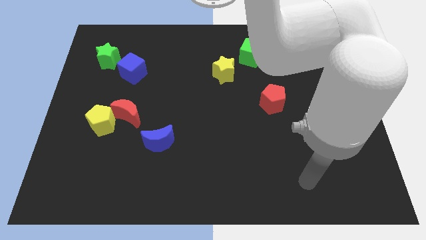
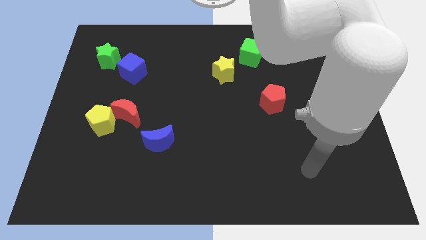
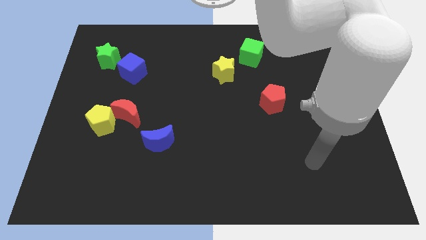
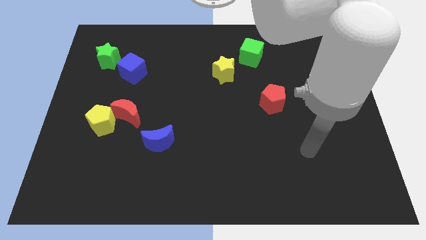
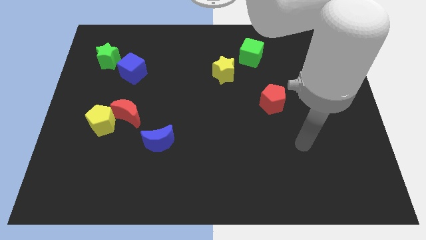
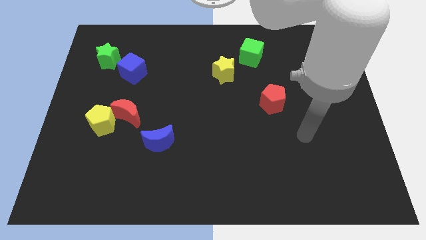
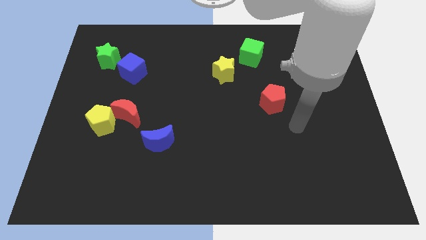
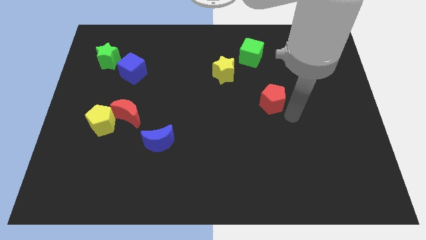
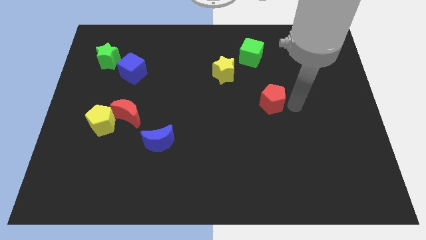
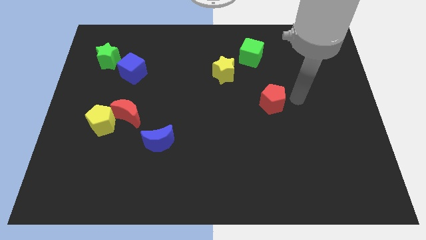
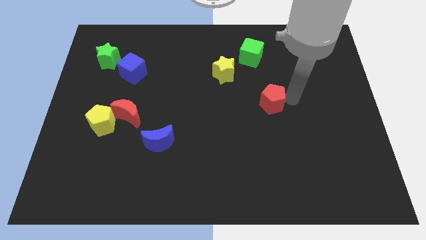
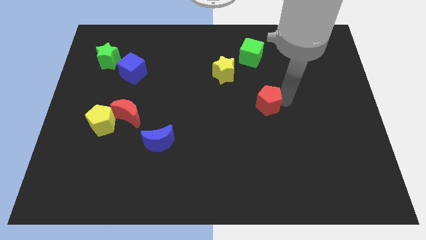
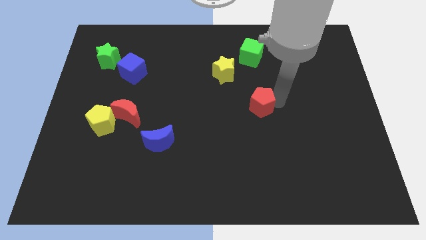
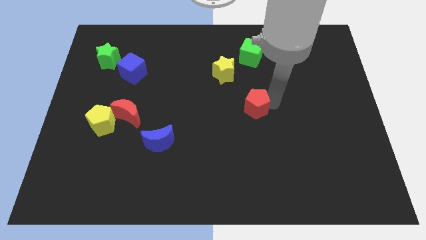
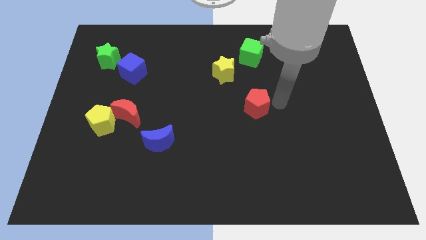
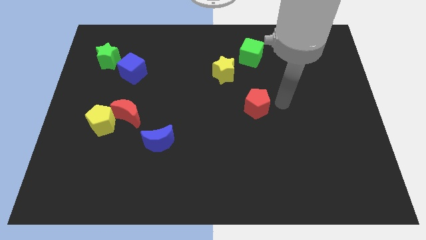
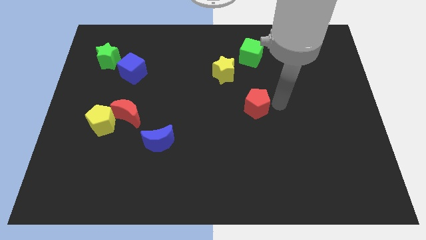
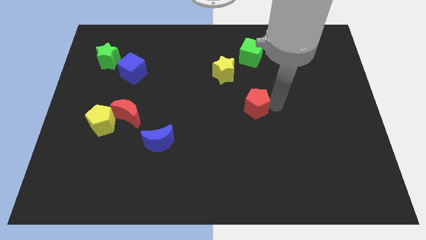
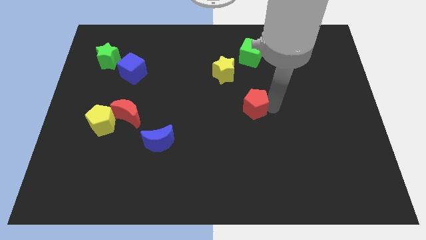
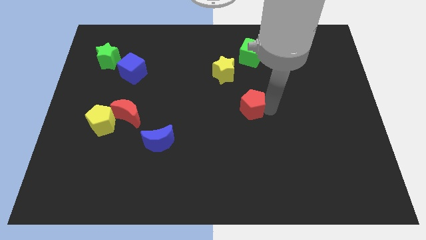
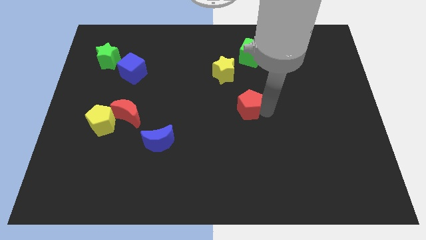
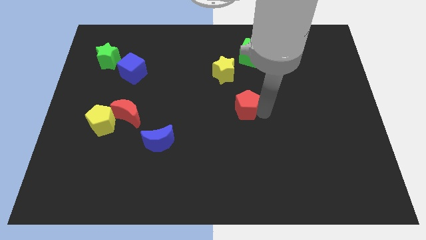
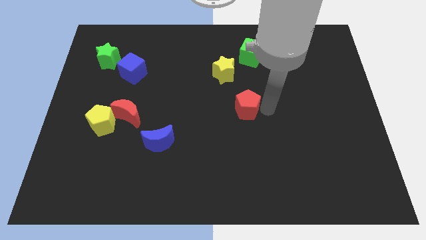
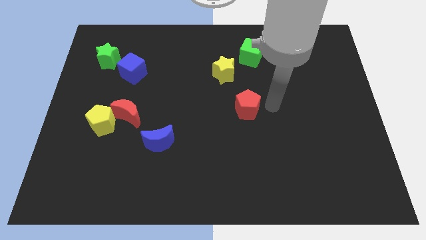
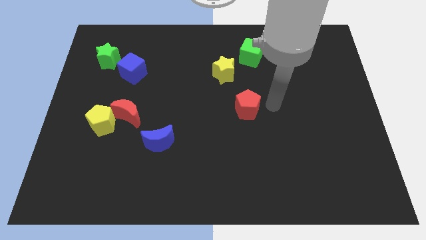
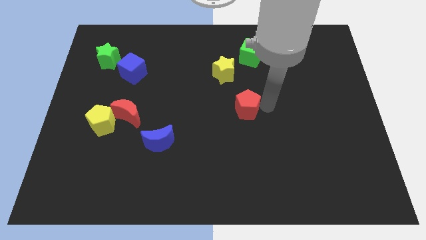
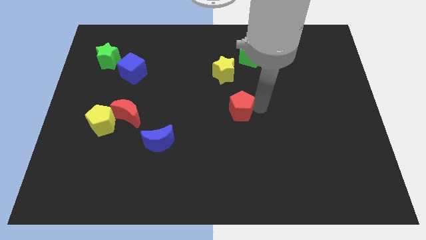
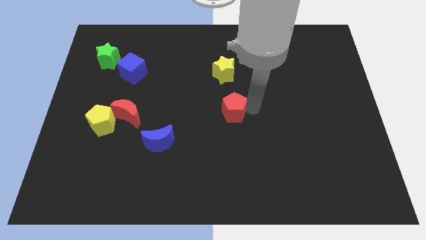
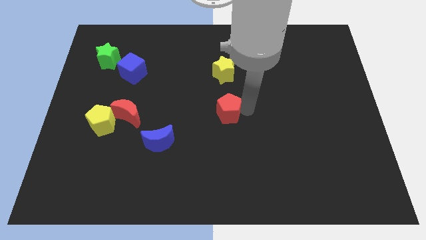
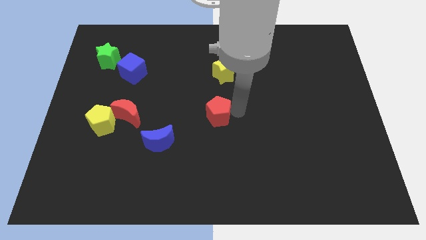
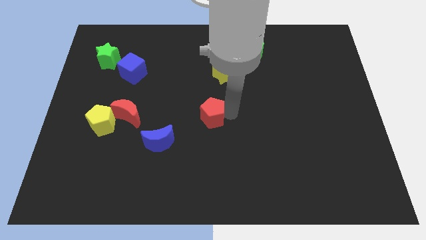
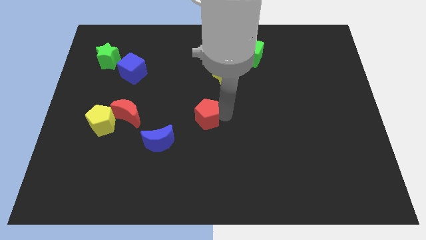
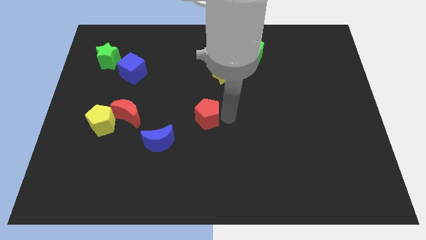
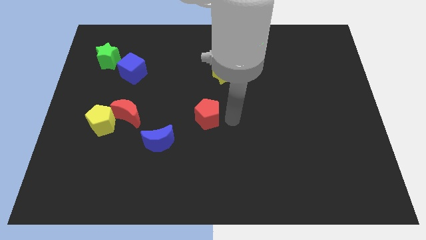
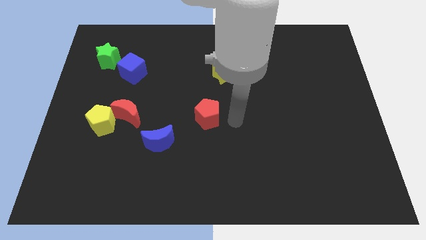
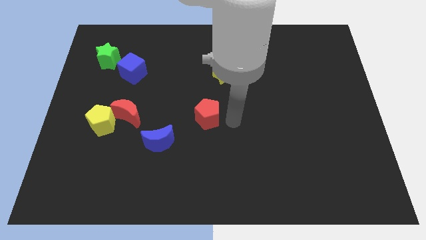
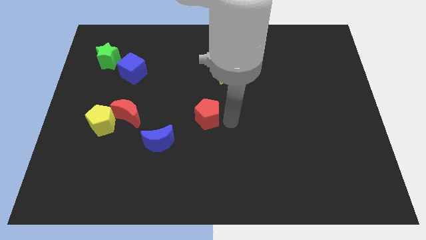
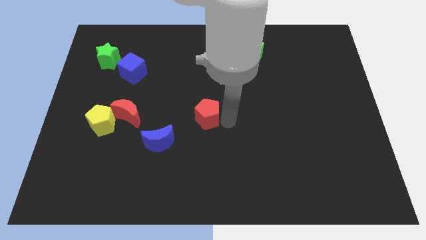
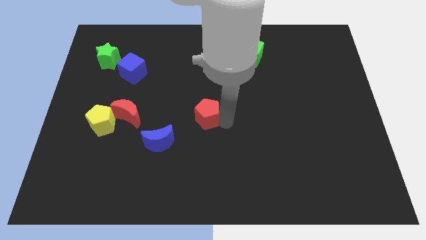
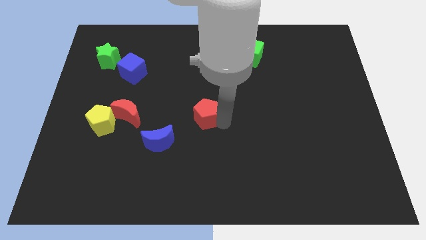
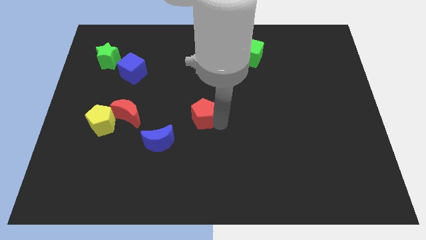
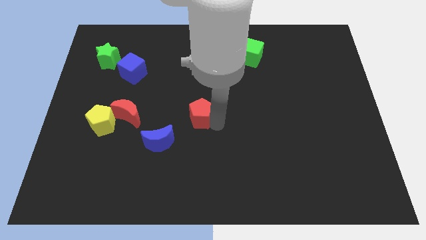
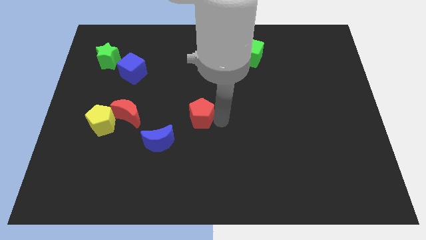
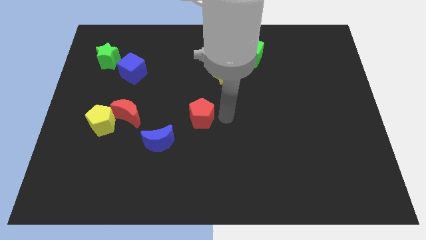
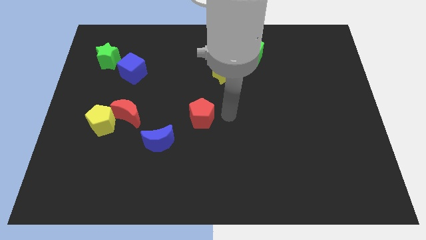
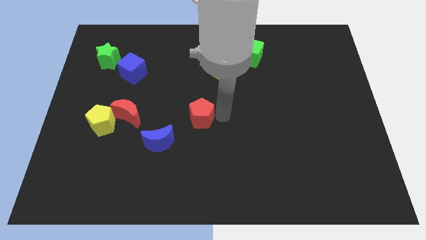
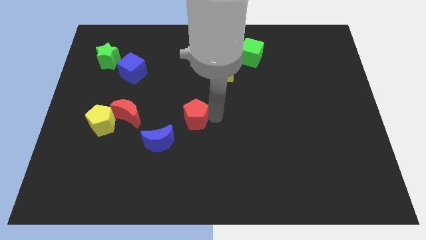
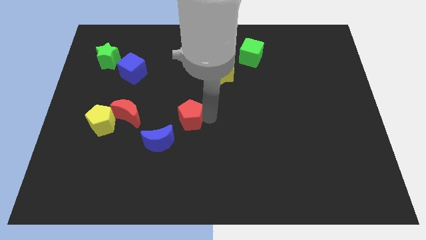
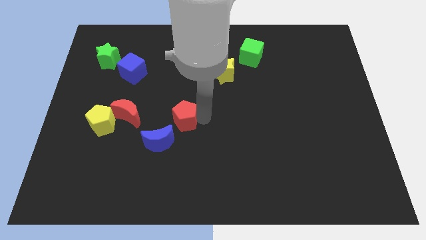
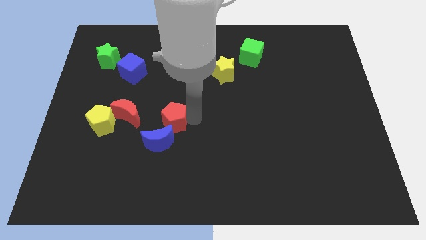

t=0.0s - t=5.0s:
push the red pentagon to the right of the yellow pentagon

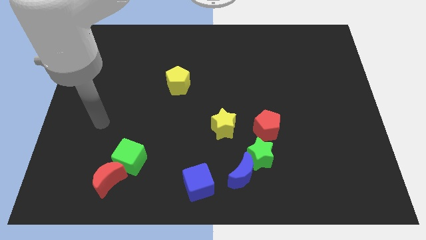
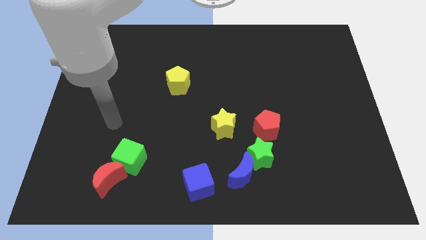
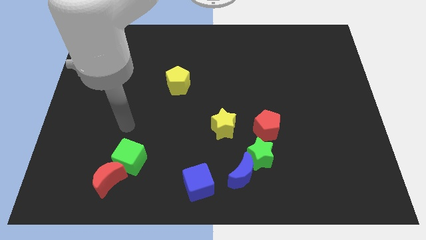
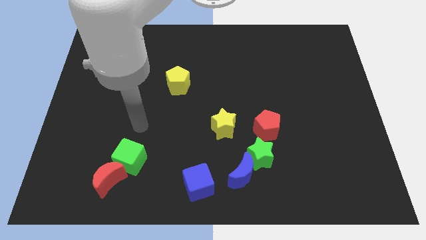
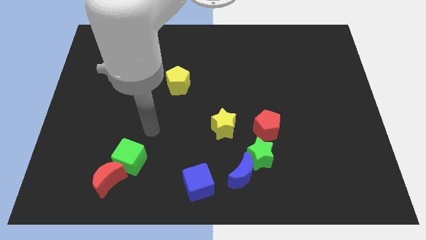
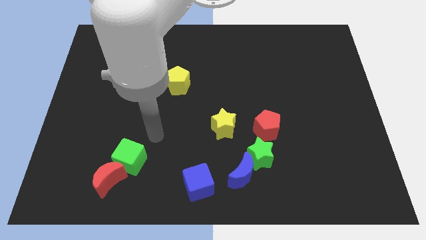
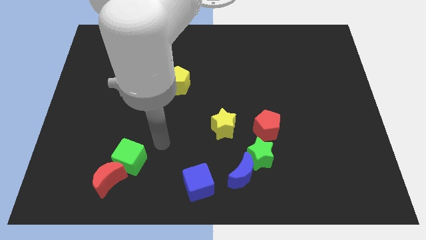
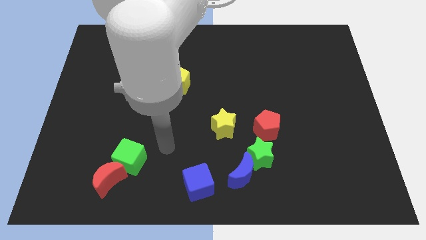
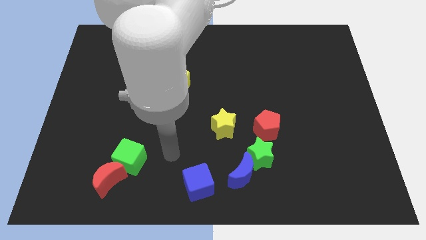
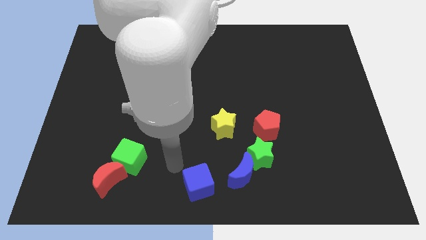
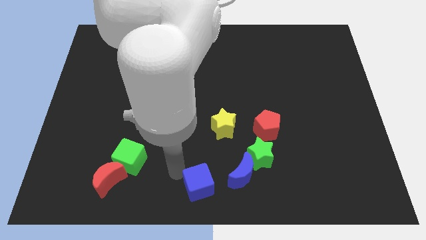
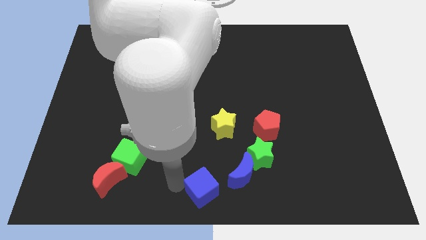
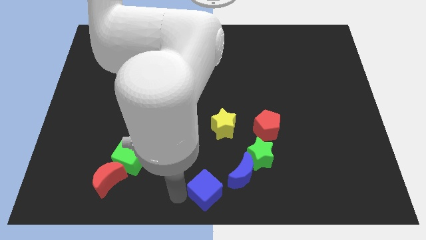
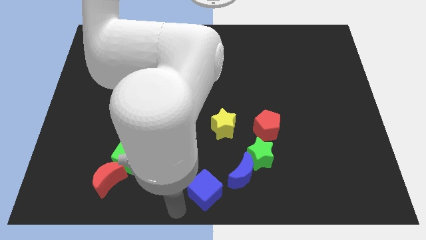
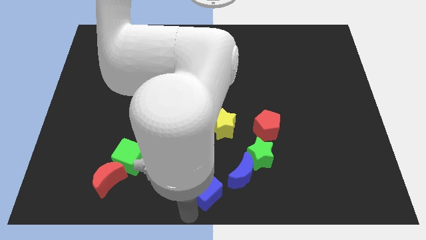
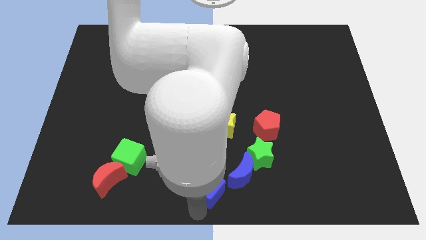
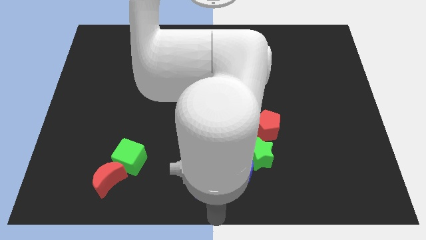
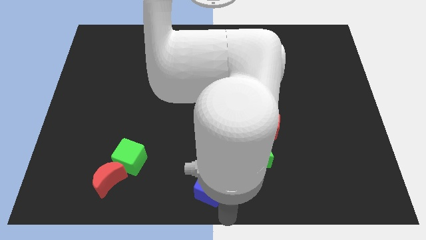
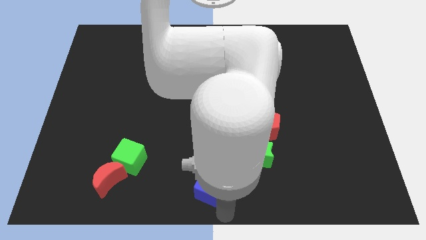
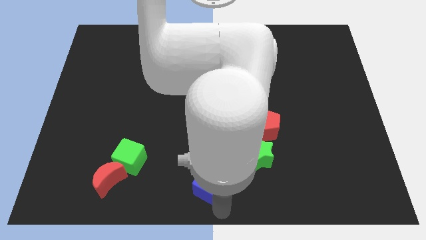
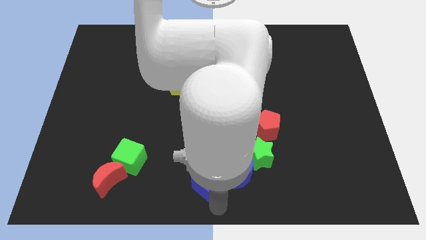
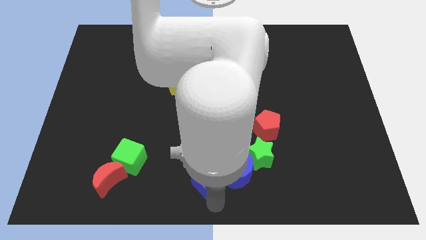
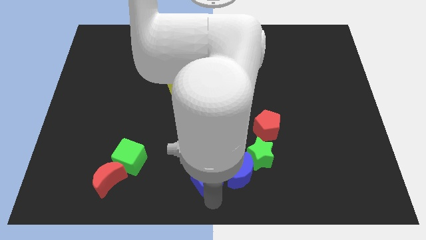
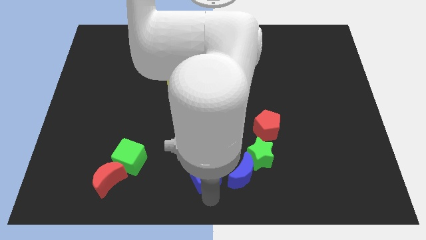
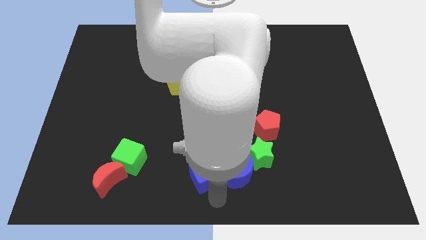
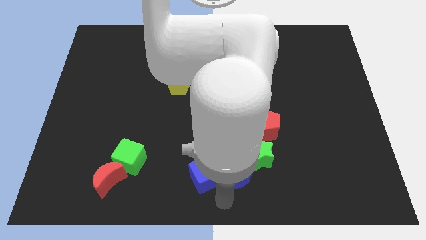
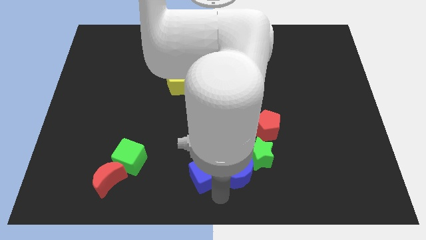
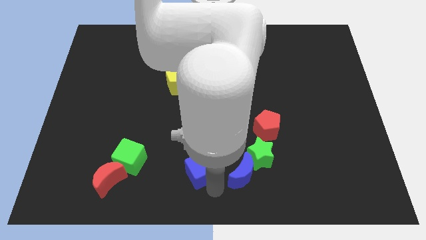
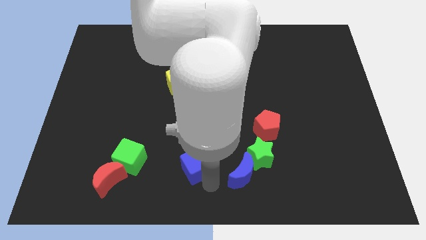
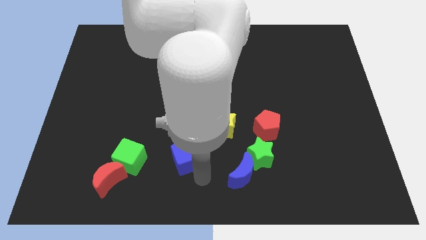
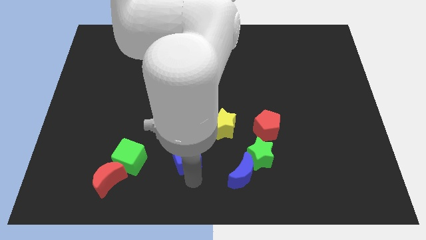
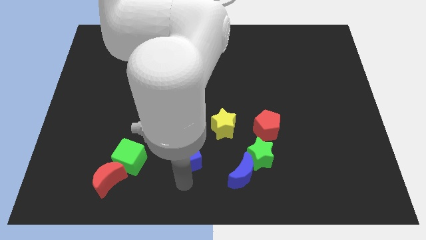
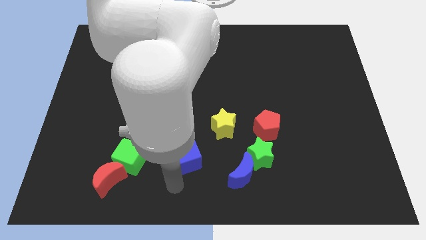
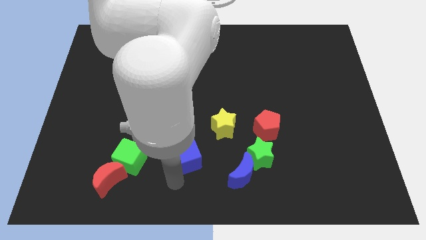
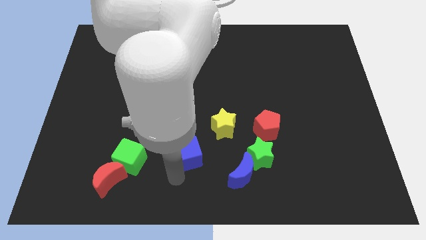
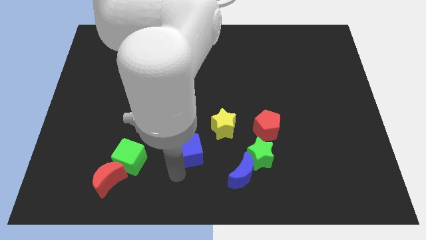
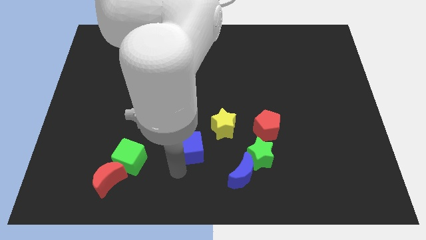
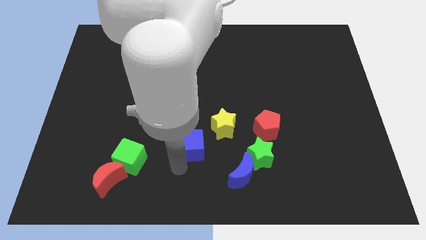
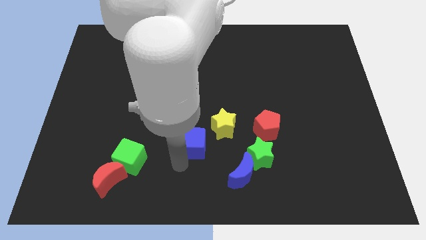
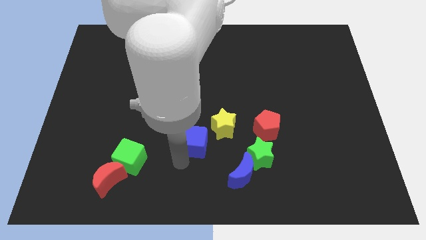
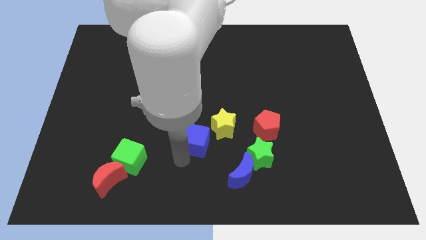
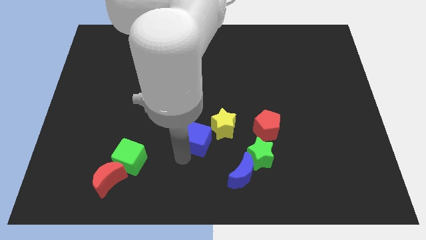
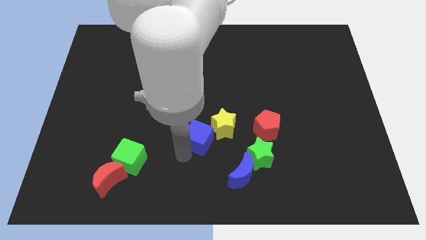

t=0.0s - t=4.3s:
move the blue cube left of the red pentagon
